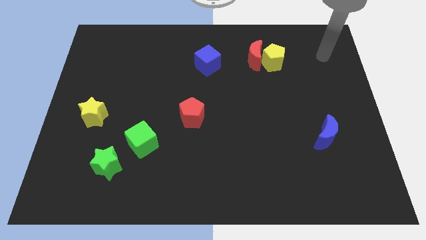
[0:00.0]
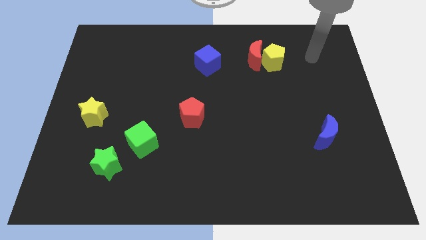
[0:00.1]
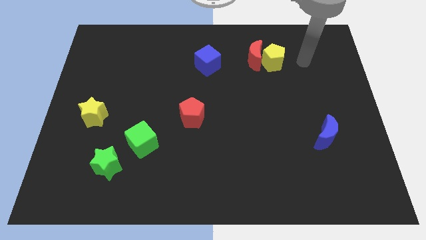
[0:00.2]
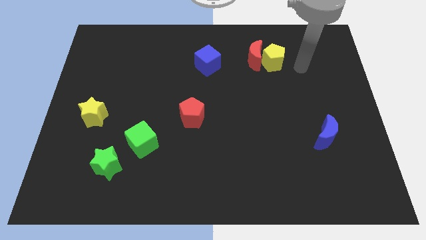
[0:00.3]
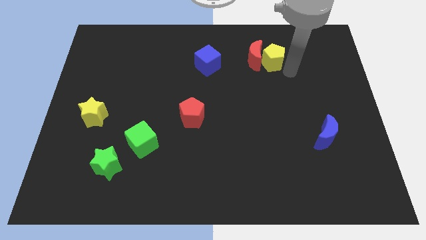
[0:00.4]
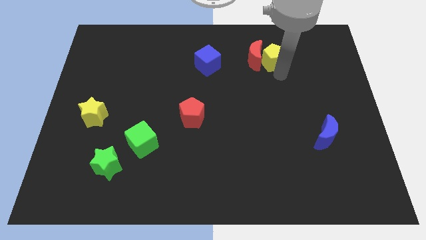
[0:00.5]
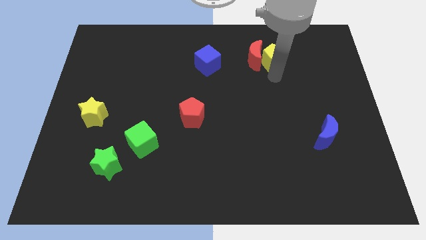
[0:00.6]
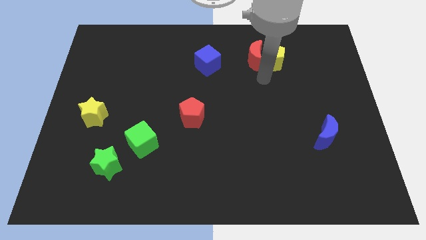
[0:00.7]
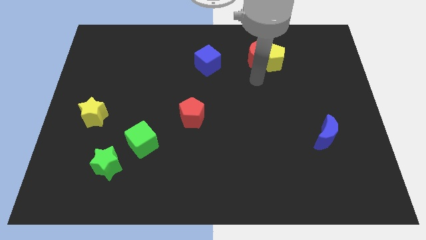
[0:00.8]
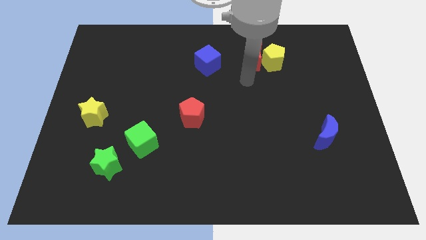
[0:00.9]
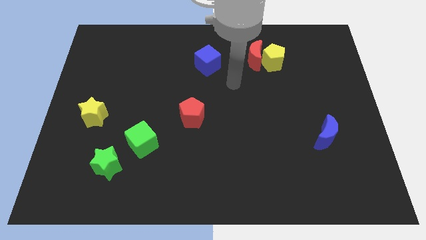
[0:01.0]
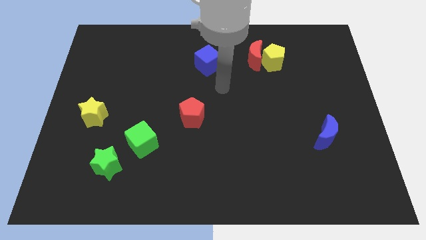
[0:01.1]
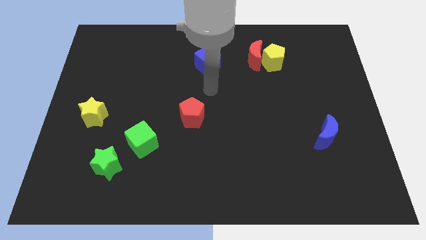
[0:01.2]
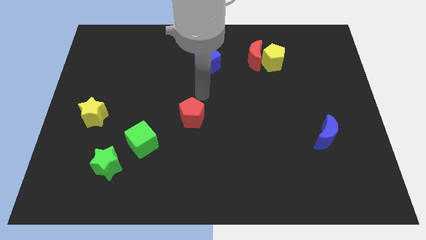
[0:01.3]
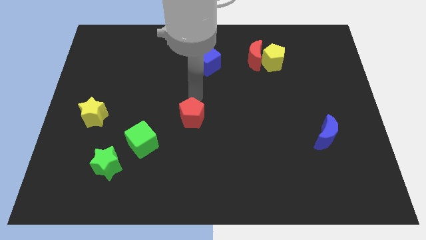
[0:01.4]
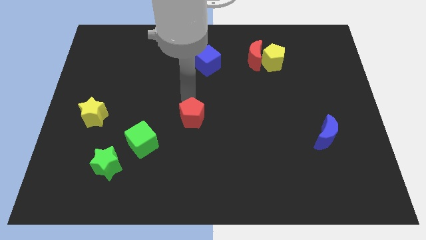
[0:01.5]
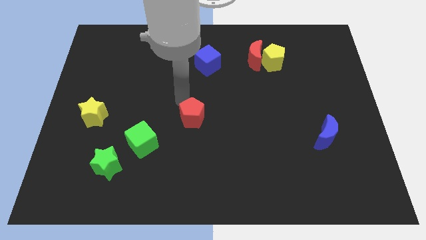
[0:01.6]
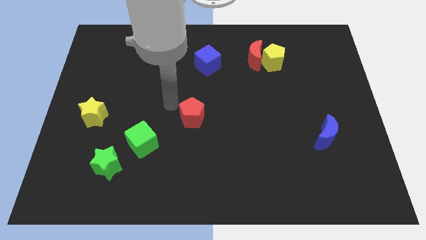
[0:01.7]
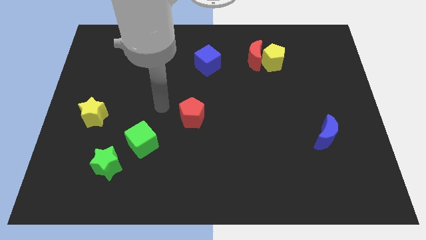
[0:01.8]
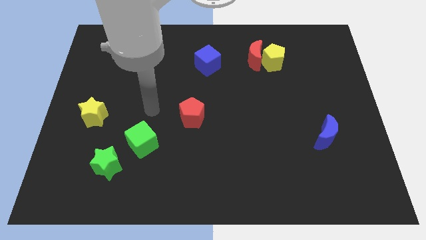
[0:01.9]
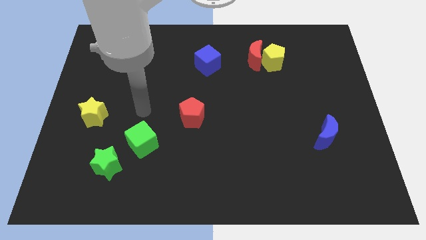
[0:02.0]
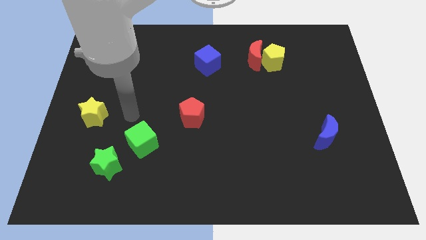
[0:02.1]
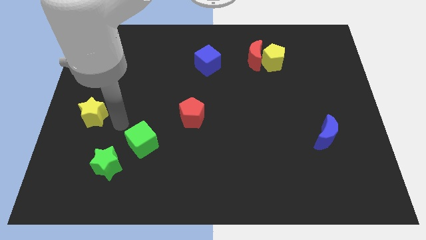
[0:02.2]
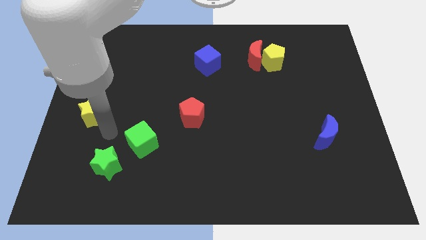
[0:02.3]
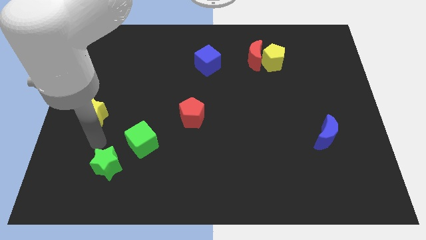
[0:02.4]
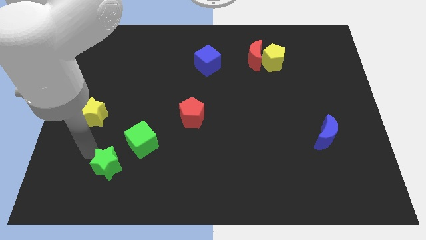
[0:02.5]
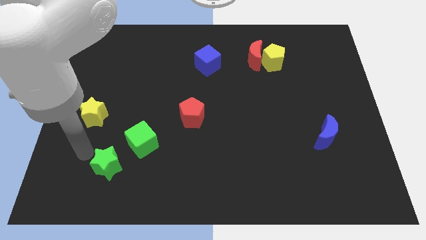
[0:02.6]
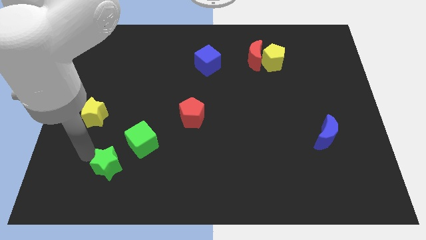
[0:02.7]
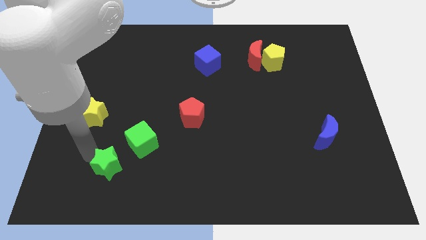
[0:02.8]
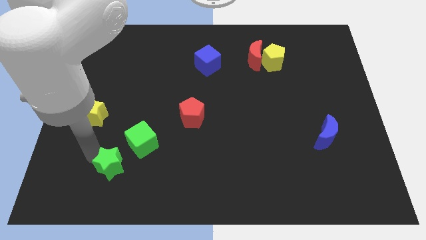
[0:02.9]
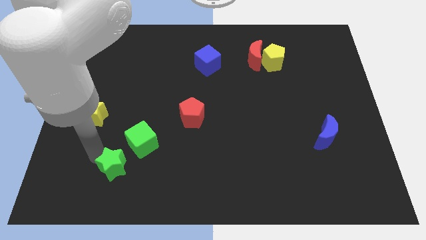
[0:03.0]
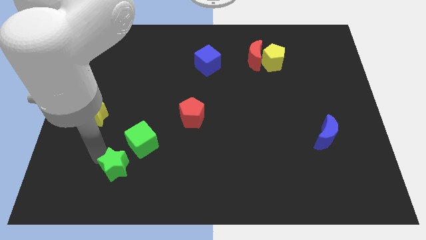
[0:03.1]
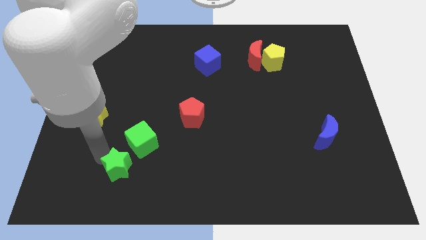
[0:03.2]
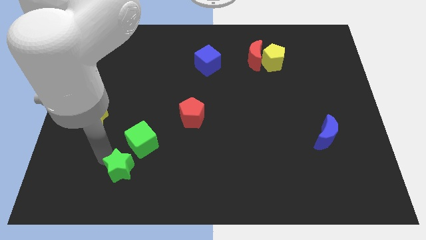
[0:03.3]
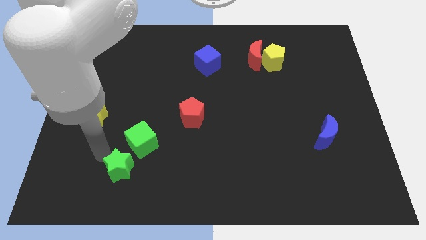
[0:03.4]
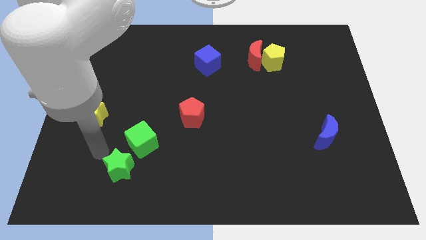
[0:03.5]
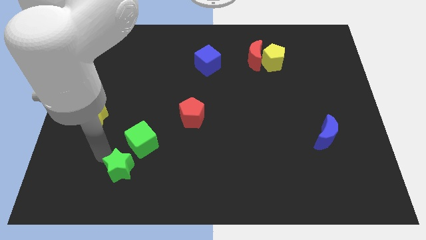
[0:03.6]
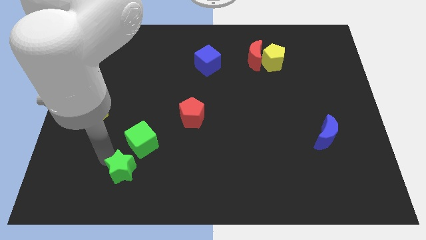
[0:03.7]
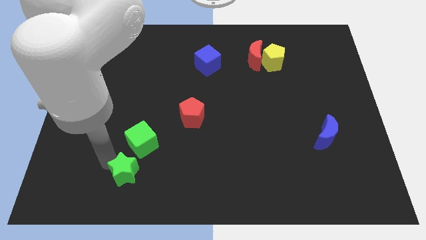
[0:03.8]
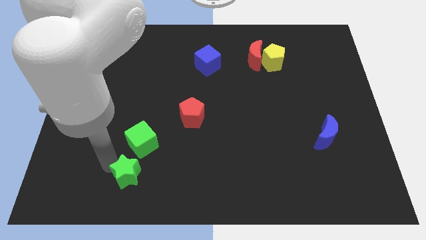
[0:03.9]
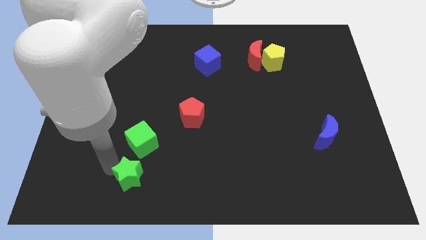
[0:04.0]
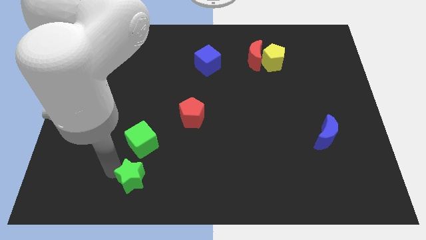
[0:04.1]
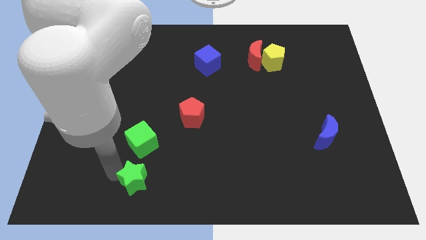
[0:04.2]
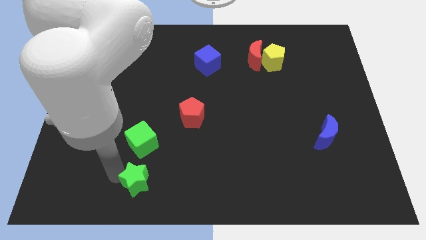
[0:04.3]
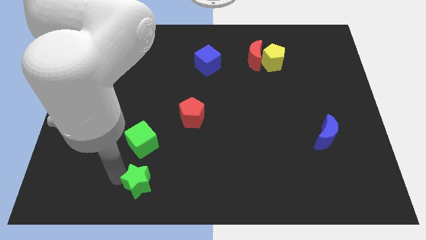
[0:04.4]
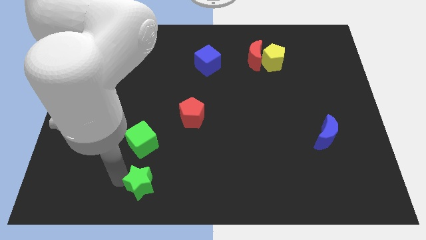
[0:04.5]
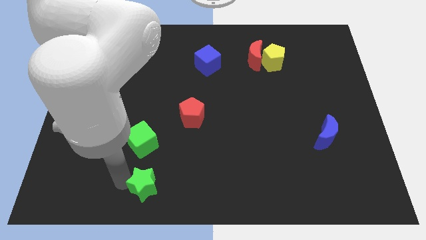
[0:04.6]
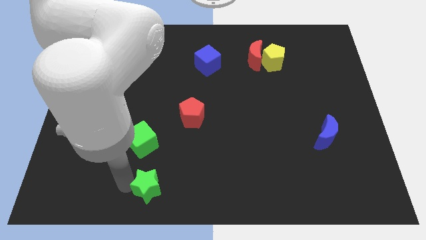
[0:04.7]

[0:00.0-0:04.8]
put the green star to the bottom side

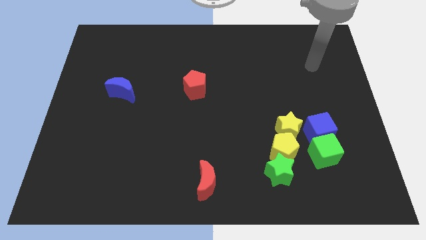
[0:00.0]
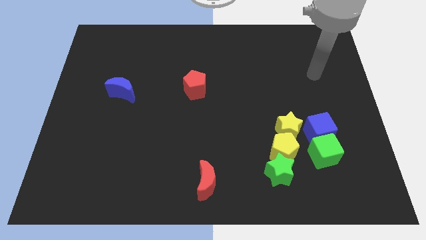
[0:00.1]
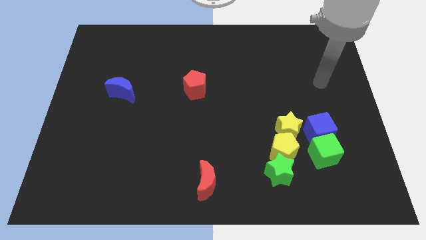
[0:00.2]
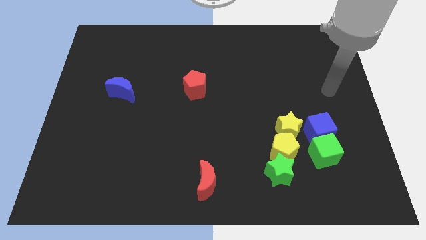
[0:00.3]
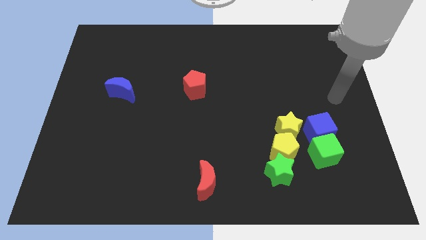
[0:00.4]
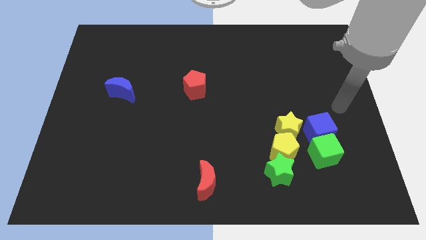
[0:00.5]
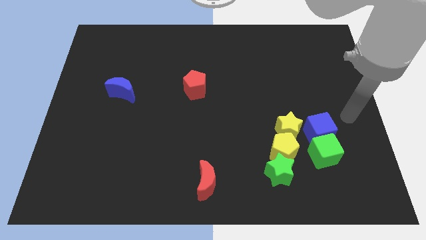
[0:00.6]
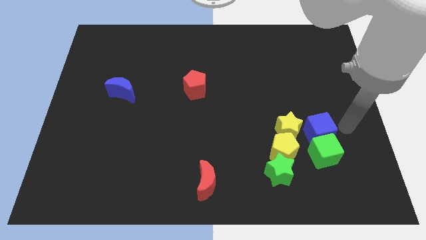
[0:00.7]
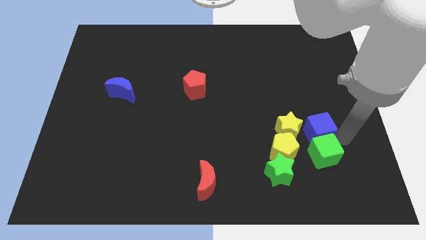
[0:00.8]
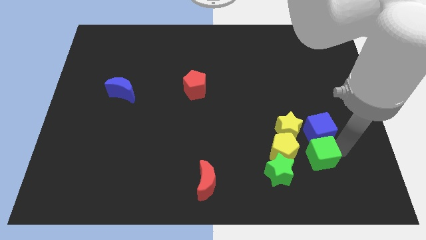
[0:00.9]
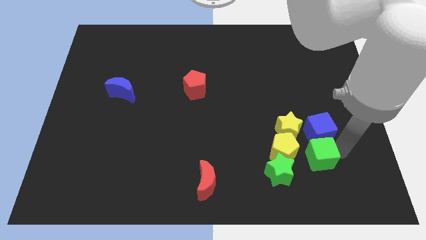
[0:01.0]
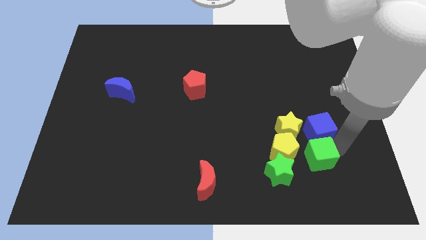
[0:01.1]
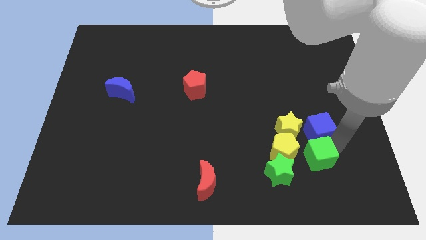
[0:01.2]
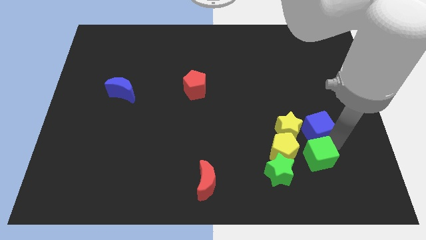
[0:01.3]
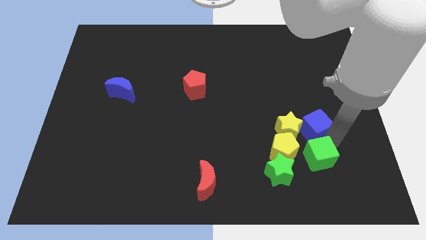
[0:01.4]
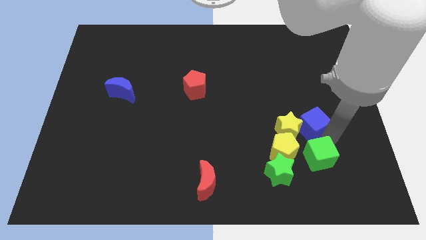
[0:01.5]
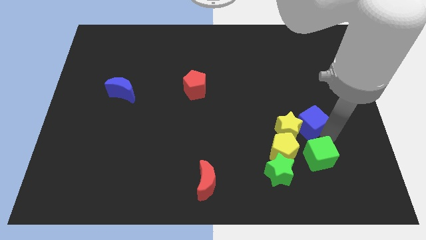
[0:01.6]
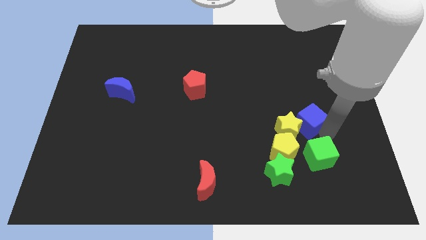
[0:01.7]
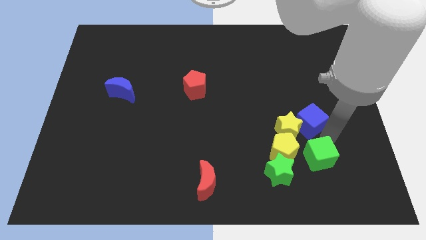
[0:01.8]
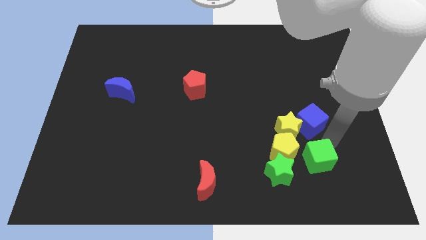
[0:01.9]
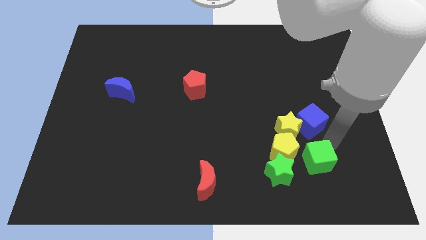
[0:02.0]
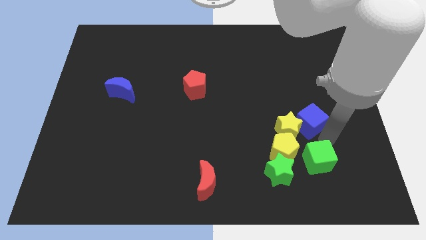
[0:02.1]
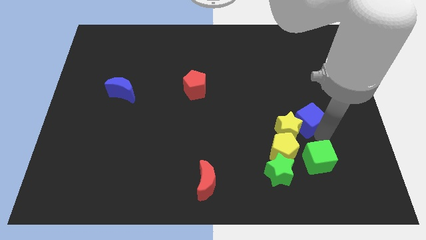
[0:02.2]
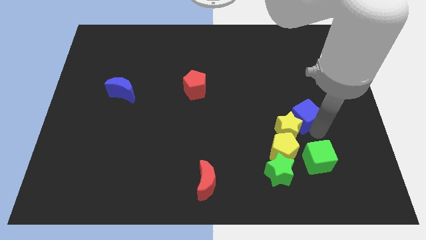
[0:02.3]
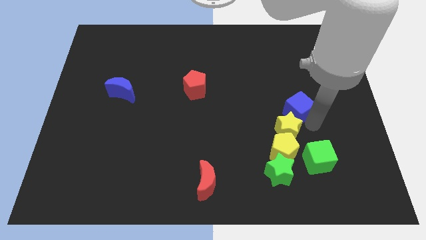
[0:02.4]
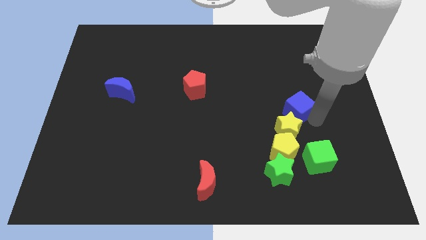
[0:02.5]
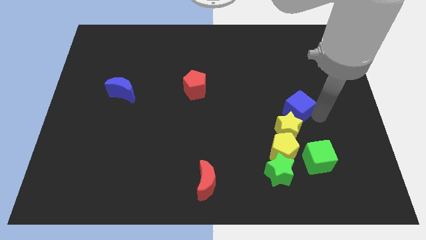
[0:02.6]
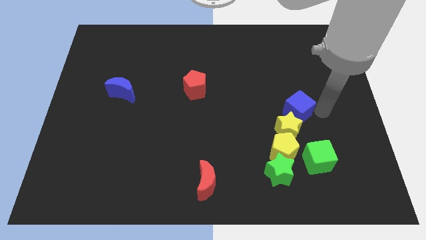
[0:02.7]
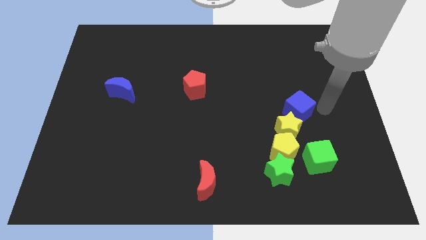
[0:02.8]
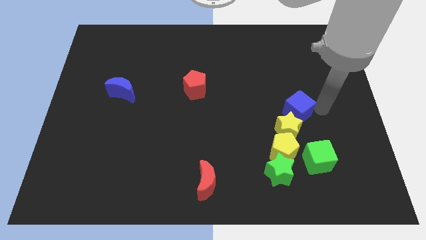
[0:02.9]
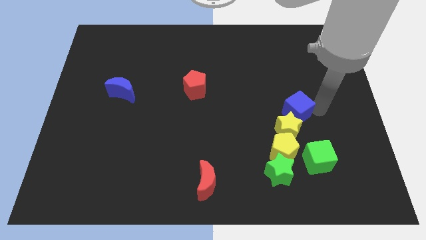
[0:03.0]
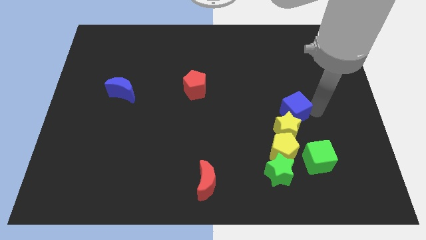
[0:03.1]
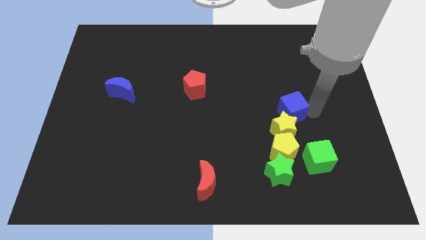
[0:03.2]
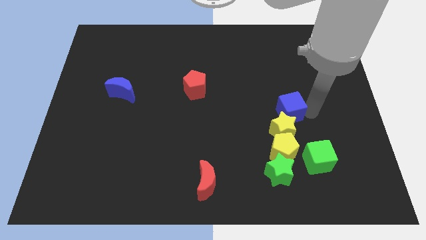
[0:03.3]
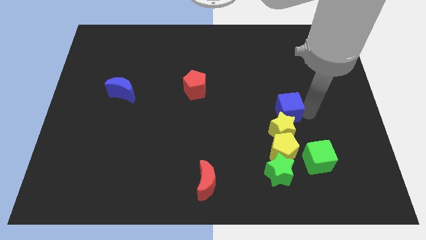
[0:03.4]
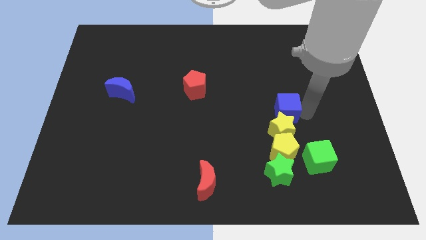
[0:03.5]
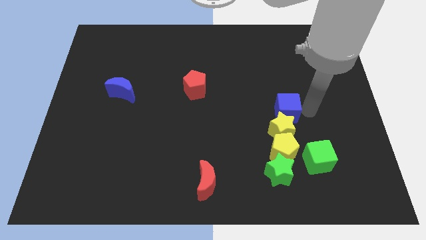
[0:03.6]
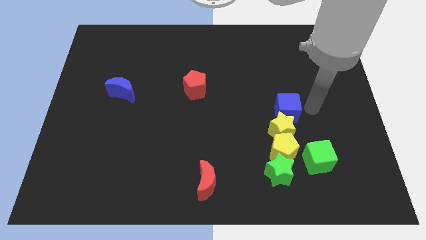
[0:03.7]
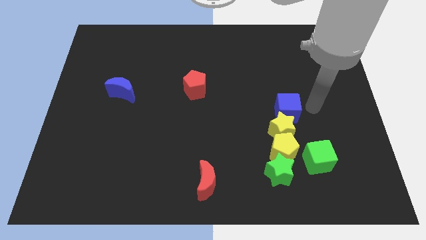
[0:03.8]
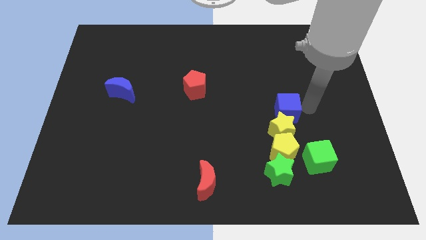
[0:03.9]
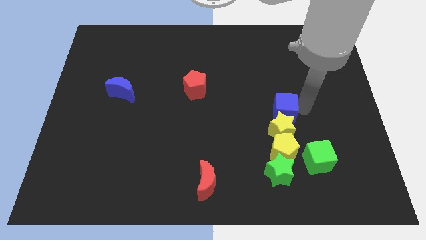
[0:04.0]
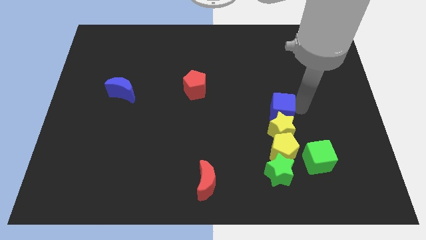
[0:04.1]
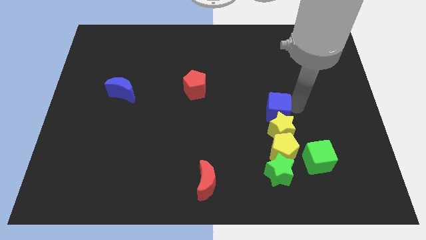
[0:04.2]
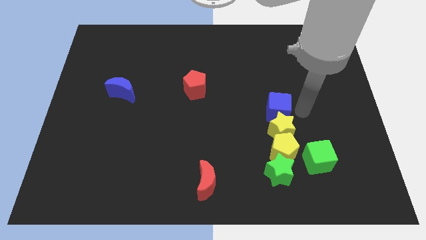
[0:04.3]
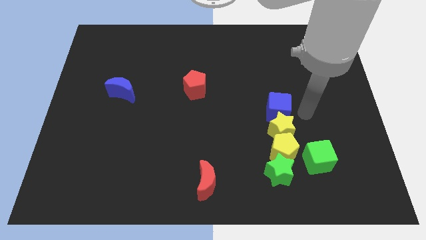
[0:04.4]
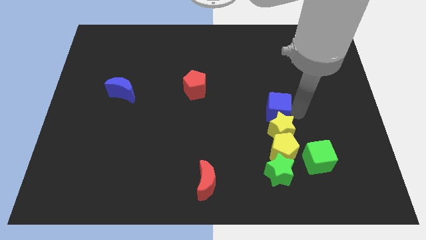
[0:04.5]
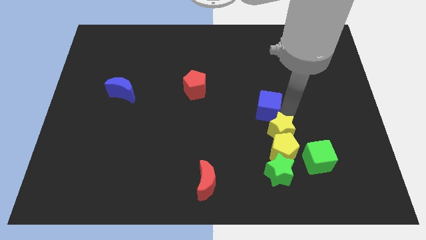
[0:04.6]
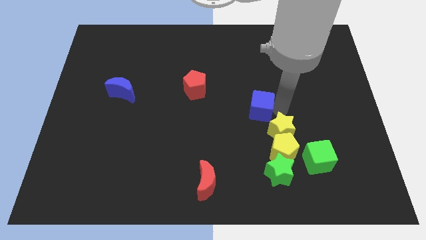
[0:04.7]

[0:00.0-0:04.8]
slide the blue cube to the center
